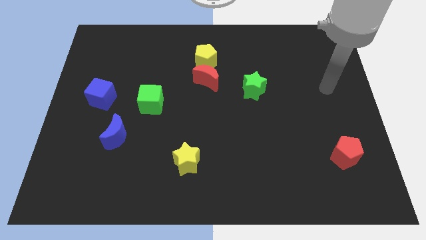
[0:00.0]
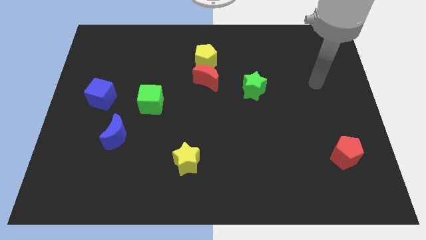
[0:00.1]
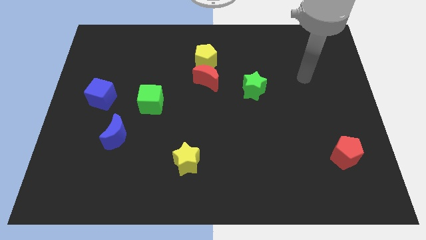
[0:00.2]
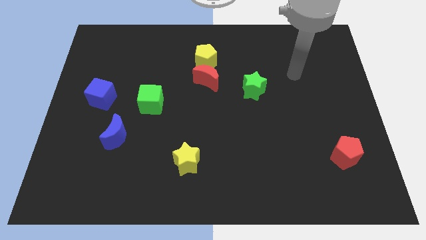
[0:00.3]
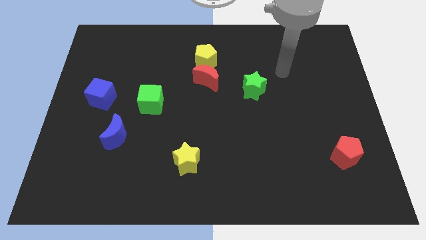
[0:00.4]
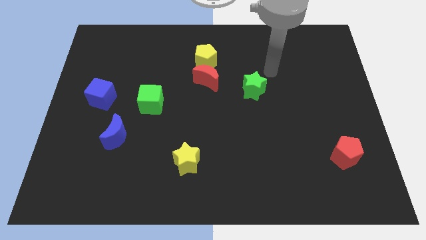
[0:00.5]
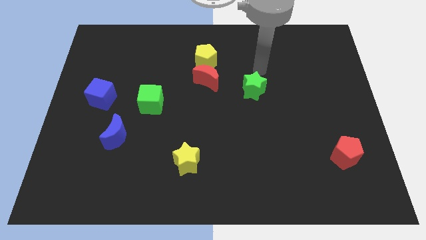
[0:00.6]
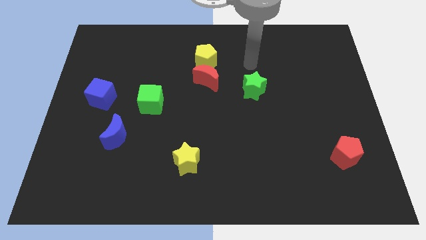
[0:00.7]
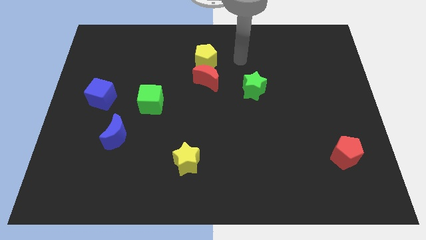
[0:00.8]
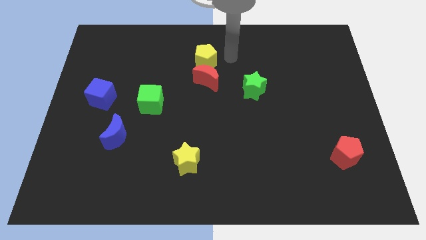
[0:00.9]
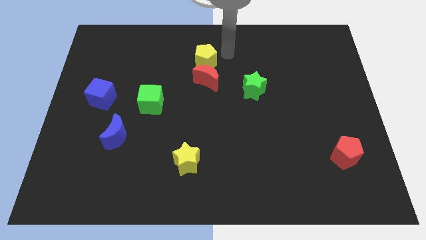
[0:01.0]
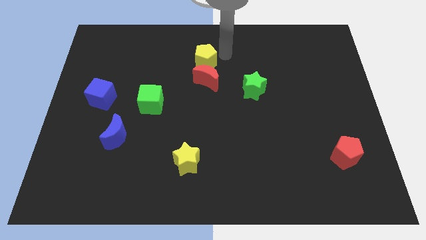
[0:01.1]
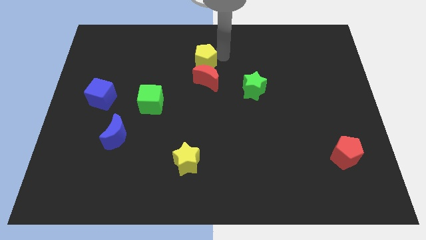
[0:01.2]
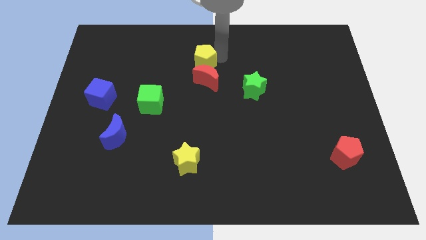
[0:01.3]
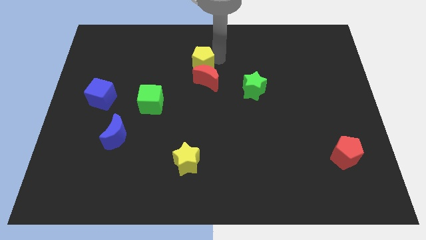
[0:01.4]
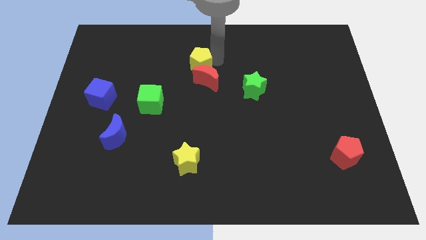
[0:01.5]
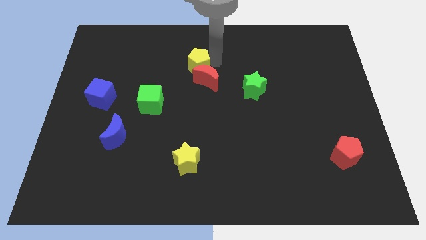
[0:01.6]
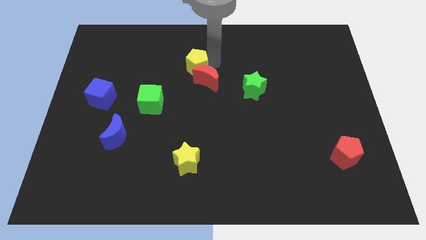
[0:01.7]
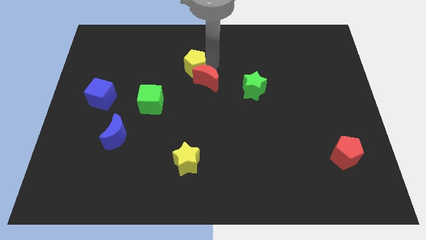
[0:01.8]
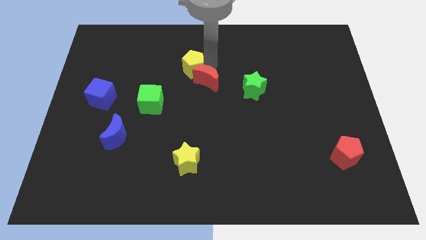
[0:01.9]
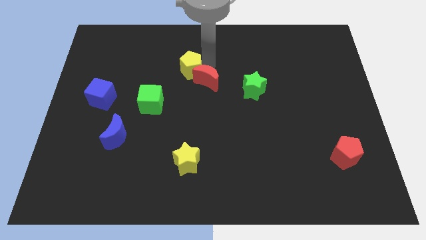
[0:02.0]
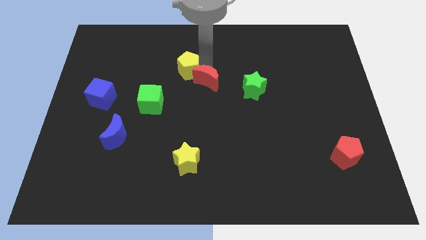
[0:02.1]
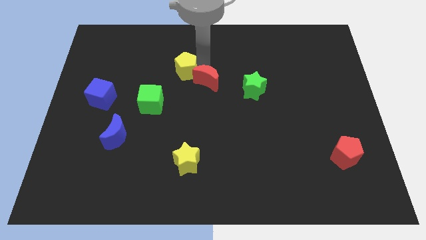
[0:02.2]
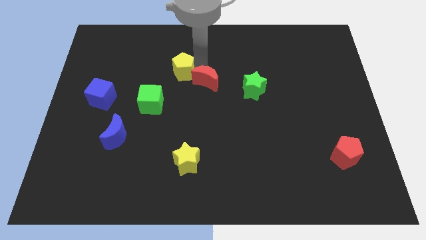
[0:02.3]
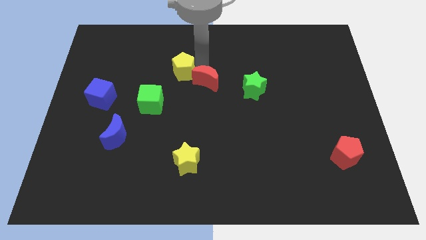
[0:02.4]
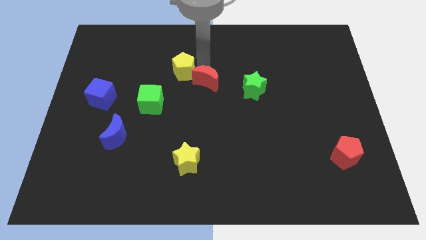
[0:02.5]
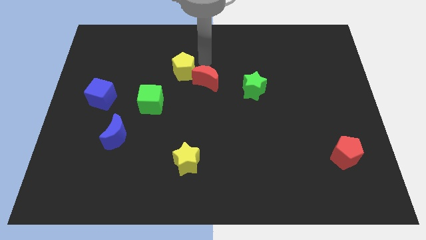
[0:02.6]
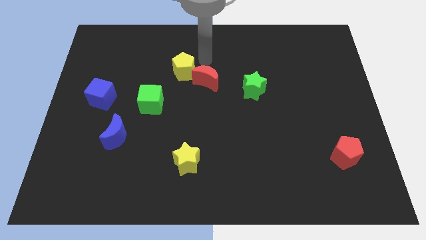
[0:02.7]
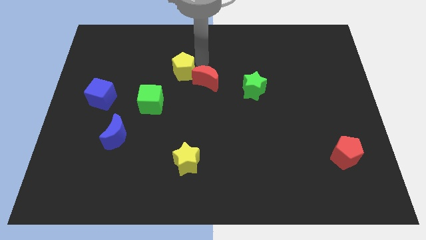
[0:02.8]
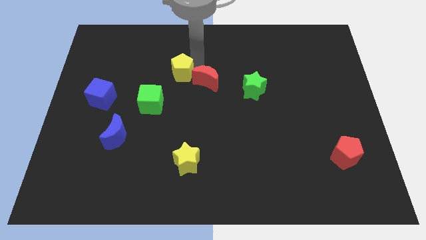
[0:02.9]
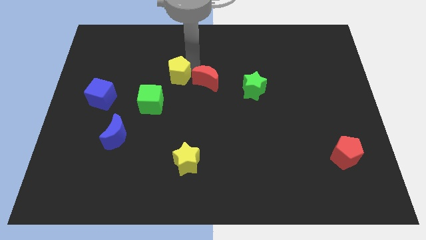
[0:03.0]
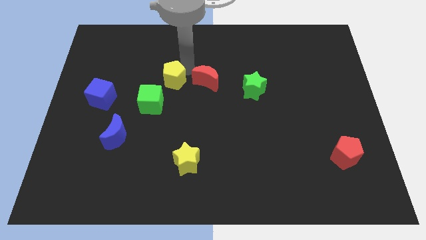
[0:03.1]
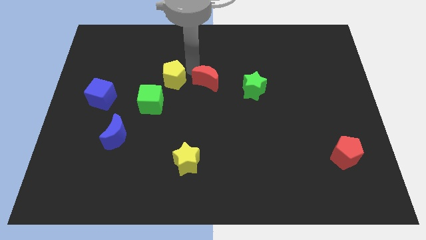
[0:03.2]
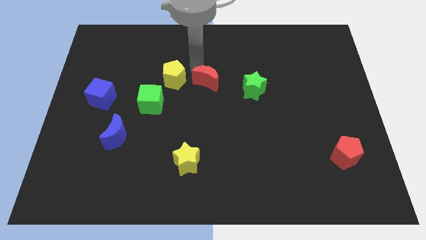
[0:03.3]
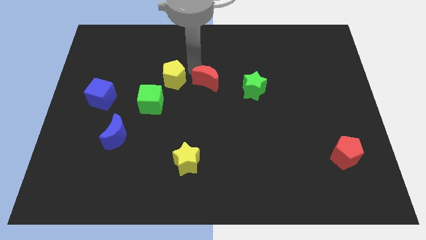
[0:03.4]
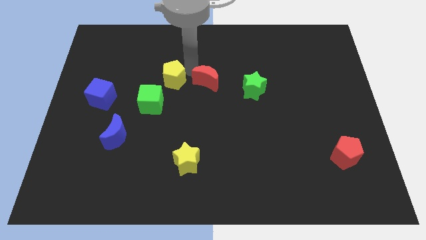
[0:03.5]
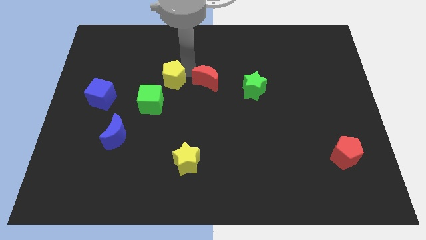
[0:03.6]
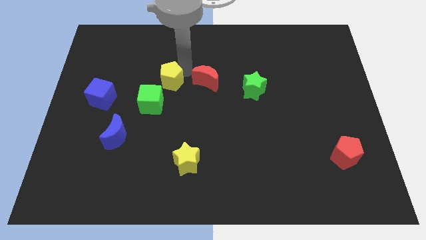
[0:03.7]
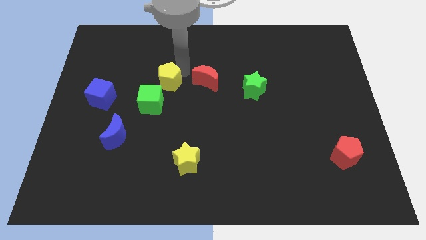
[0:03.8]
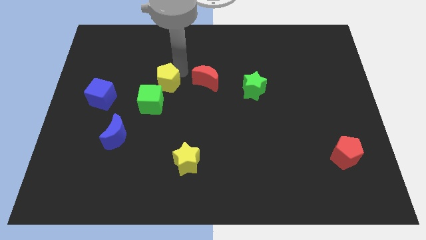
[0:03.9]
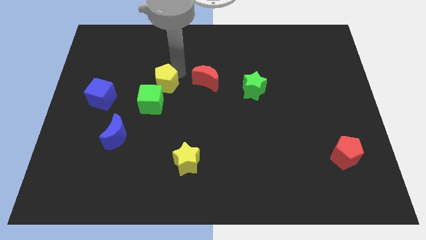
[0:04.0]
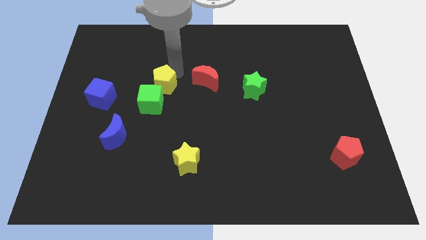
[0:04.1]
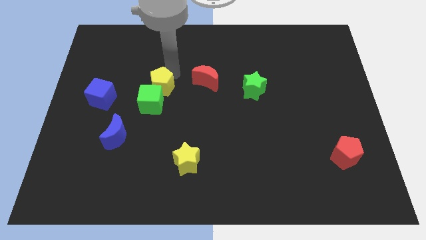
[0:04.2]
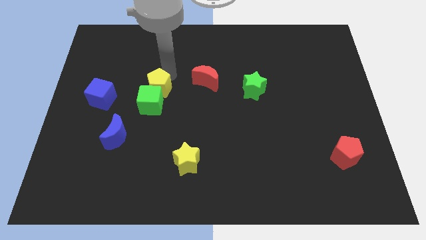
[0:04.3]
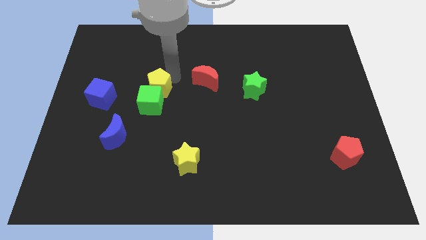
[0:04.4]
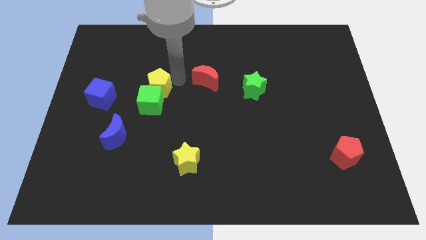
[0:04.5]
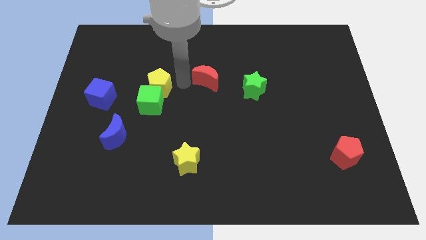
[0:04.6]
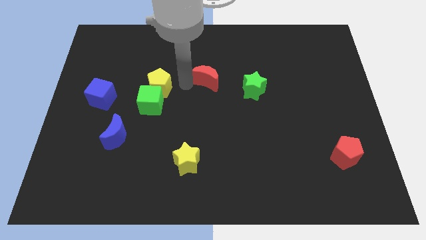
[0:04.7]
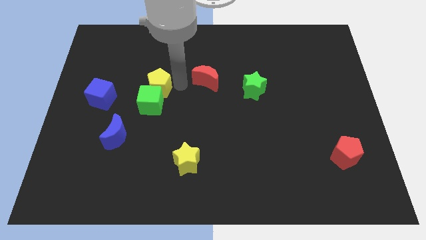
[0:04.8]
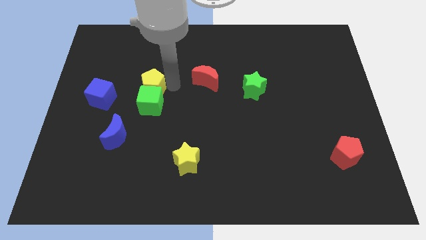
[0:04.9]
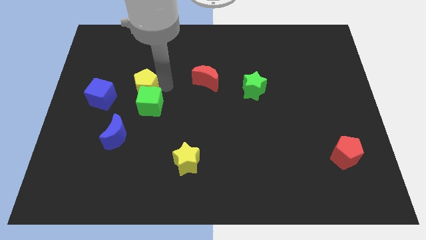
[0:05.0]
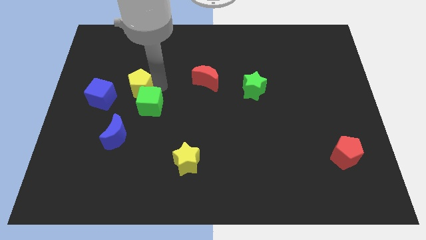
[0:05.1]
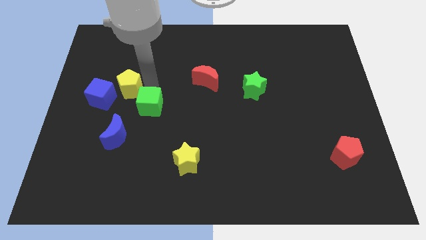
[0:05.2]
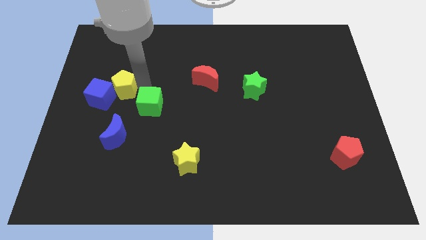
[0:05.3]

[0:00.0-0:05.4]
slide the yellow pentagon close to the blue cube

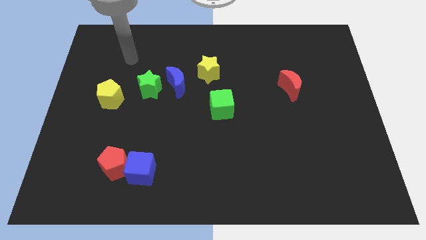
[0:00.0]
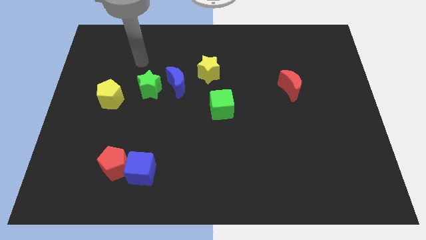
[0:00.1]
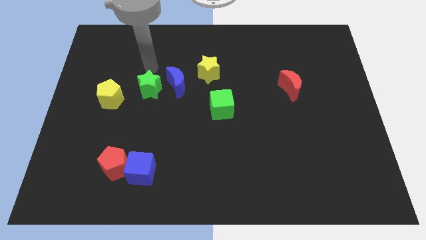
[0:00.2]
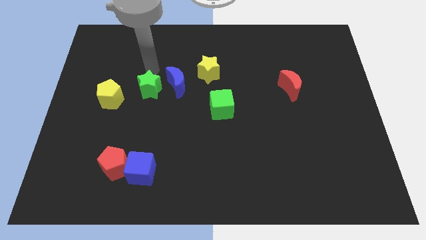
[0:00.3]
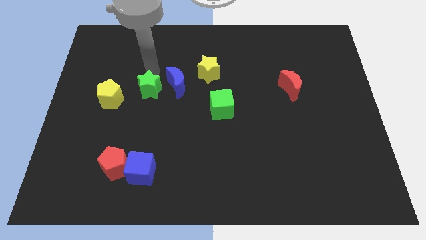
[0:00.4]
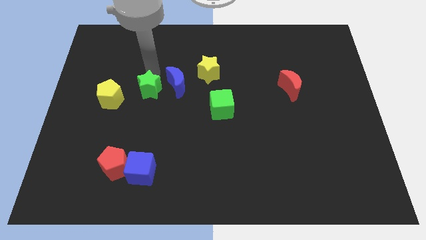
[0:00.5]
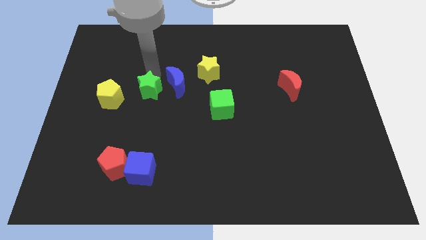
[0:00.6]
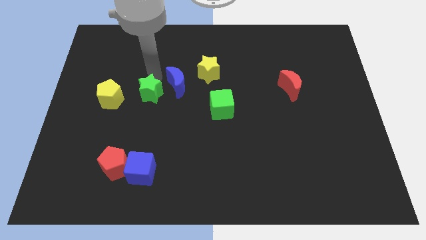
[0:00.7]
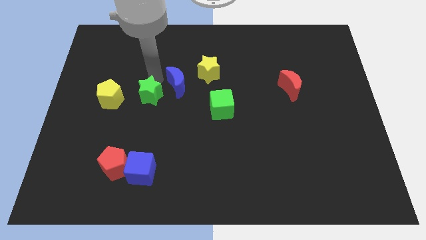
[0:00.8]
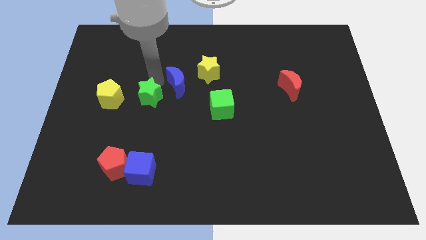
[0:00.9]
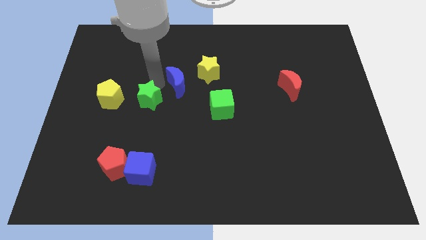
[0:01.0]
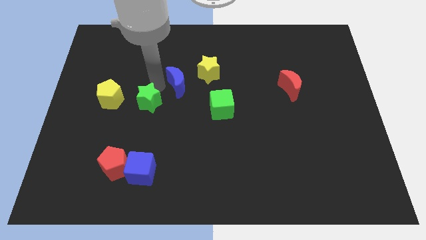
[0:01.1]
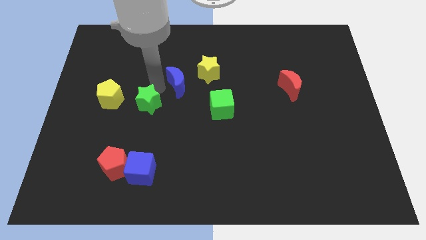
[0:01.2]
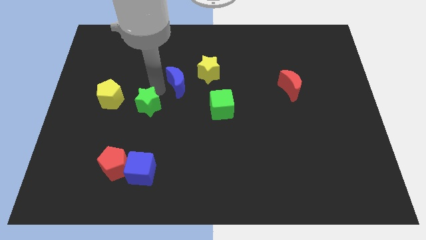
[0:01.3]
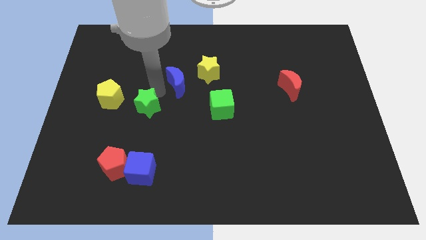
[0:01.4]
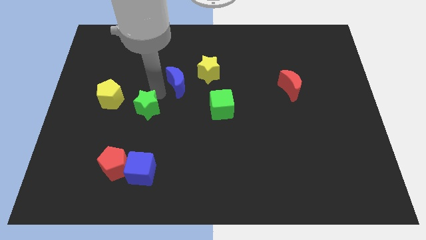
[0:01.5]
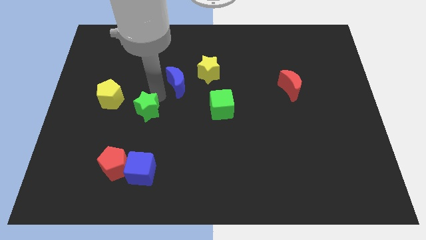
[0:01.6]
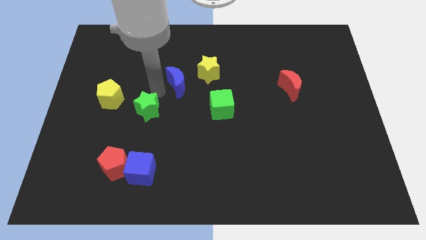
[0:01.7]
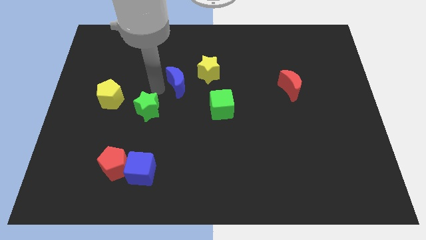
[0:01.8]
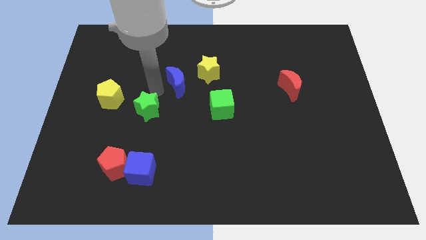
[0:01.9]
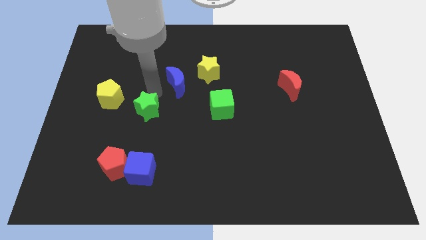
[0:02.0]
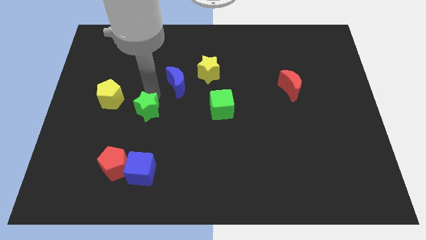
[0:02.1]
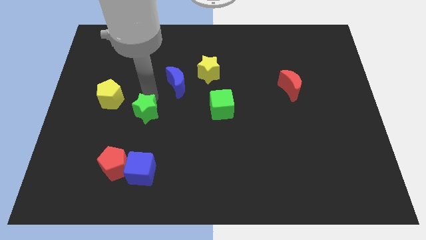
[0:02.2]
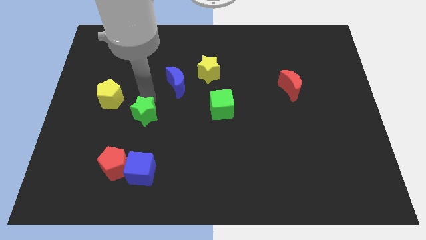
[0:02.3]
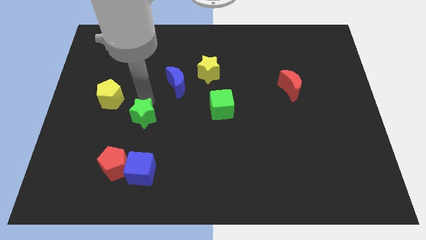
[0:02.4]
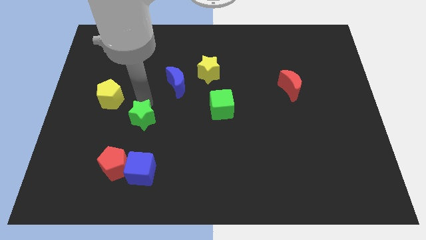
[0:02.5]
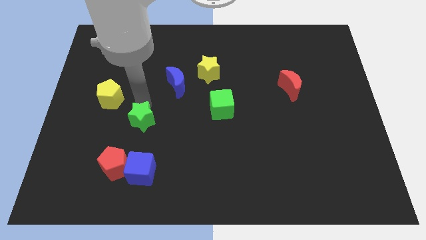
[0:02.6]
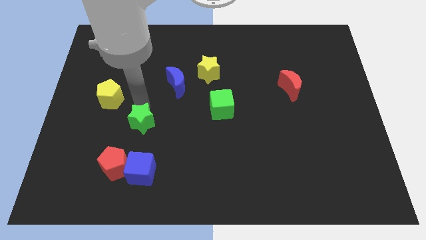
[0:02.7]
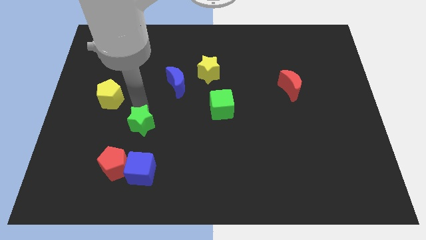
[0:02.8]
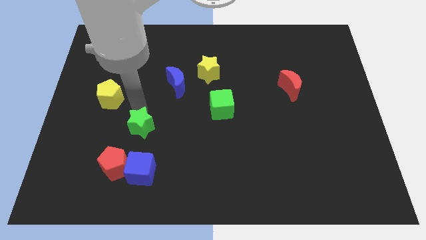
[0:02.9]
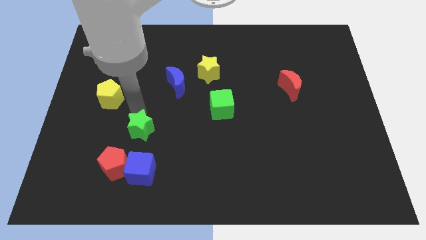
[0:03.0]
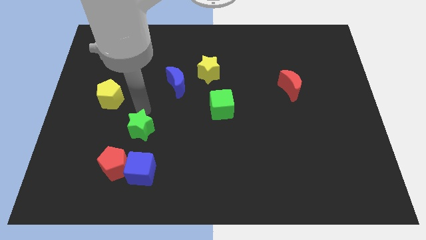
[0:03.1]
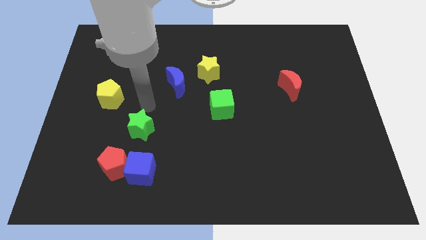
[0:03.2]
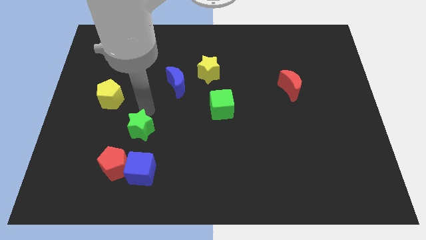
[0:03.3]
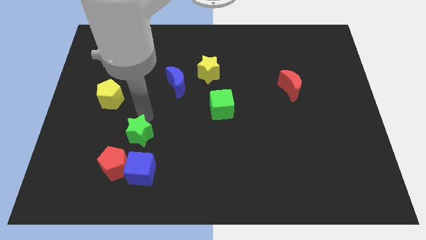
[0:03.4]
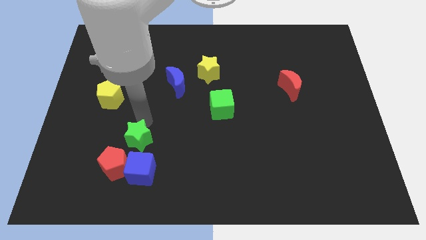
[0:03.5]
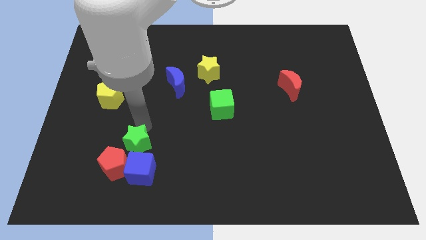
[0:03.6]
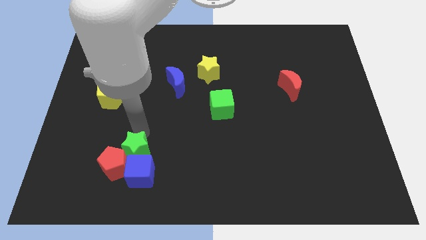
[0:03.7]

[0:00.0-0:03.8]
slide the green star next to the blue cube
